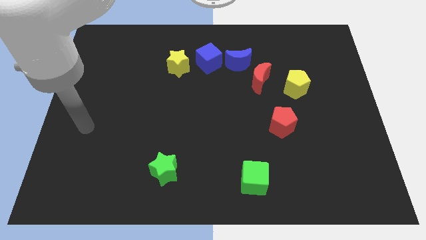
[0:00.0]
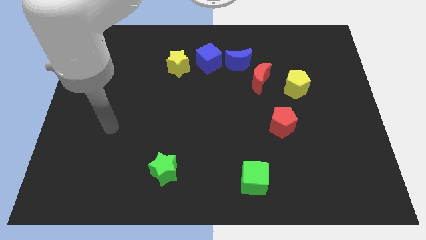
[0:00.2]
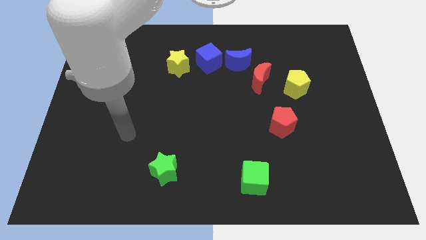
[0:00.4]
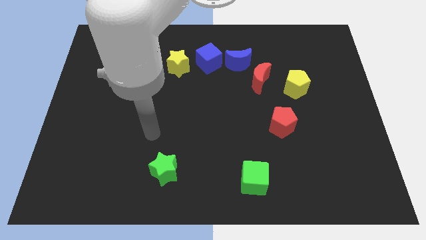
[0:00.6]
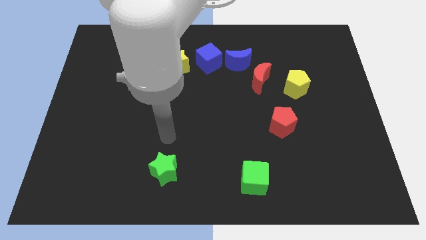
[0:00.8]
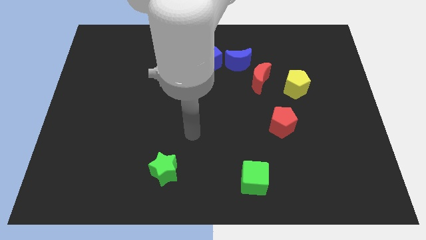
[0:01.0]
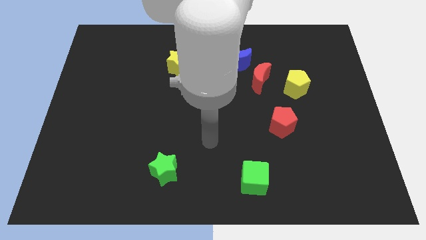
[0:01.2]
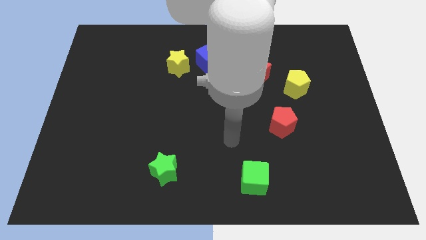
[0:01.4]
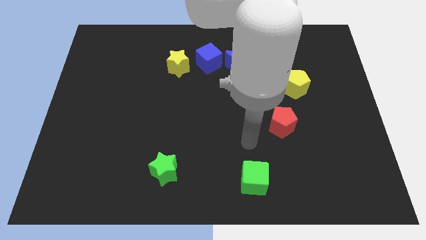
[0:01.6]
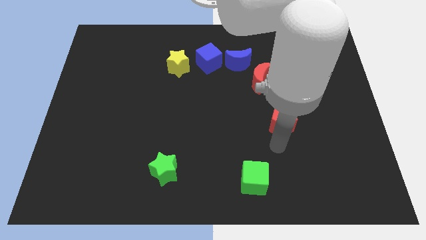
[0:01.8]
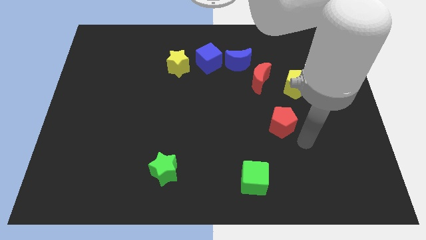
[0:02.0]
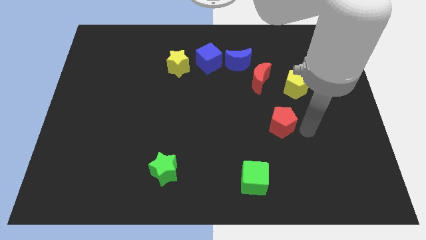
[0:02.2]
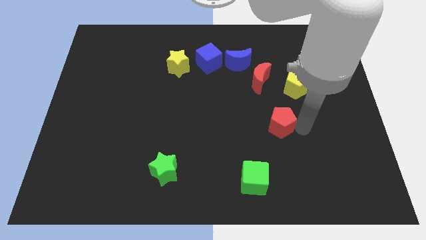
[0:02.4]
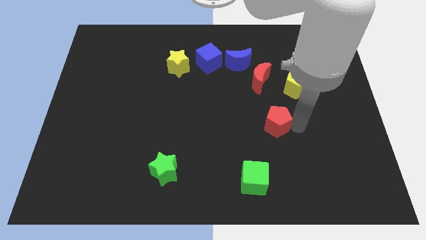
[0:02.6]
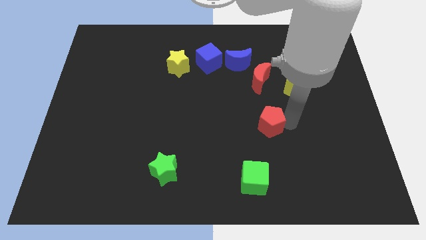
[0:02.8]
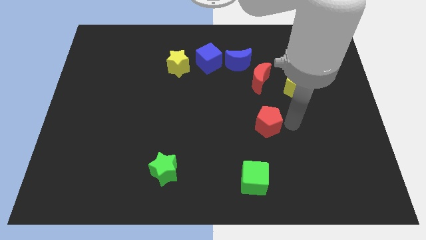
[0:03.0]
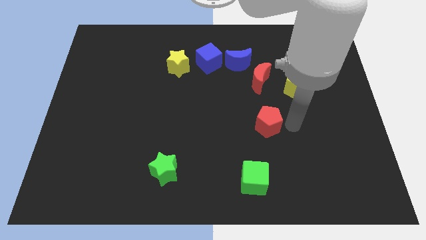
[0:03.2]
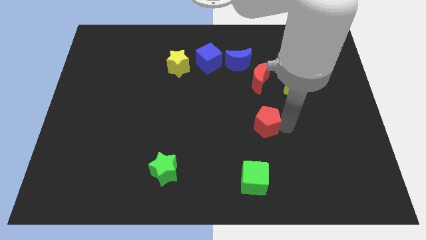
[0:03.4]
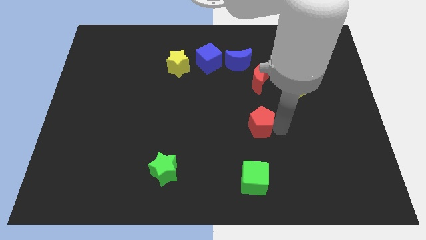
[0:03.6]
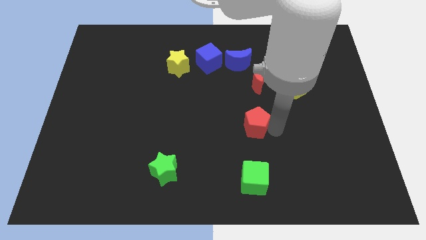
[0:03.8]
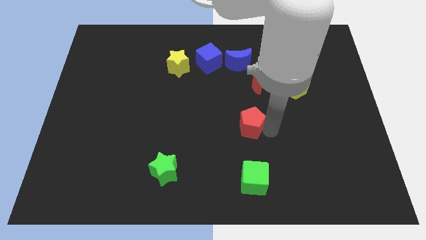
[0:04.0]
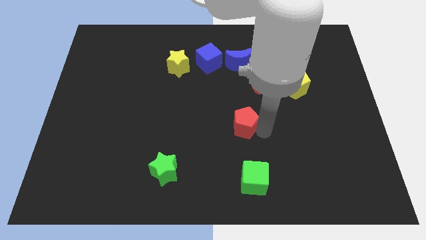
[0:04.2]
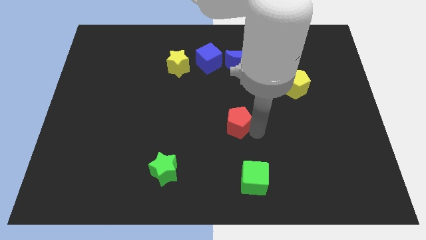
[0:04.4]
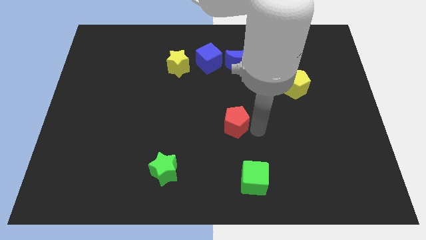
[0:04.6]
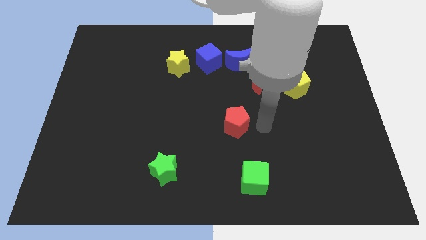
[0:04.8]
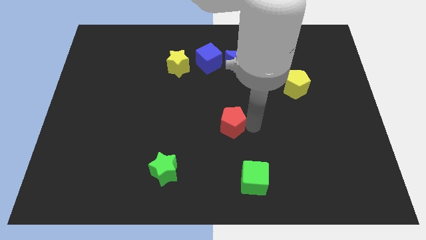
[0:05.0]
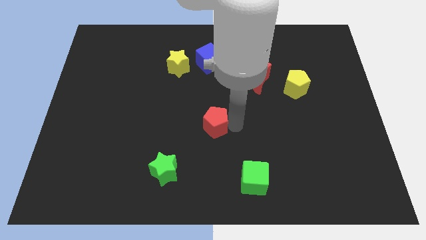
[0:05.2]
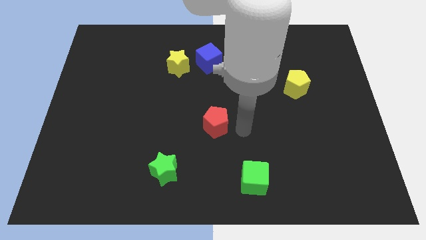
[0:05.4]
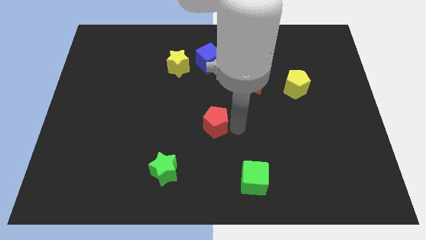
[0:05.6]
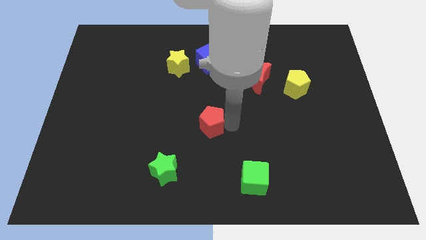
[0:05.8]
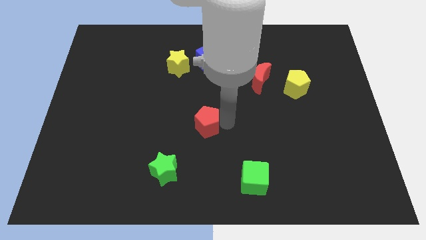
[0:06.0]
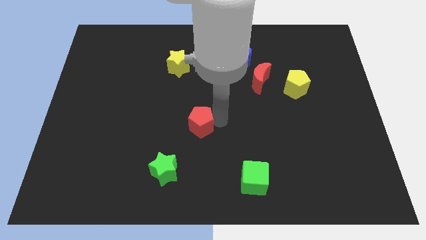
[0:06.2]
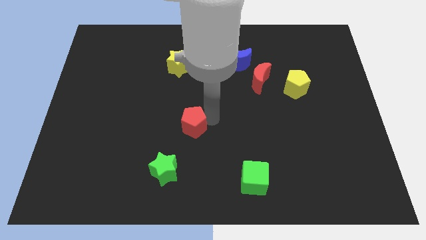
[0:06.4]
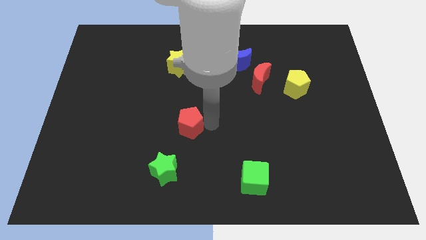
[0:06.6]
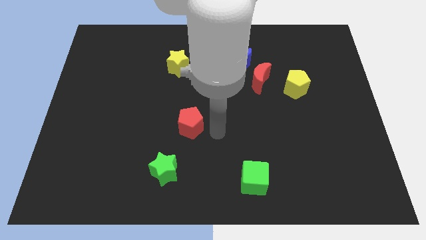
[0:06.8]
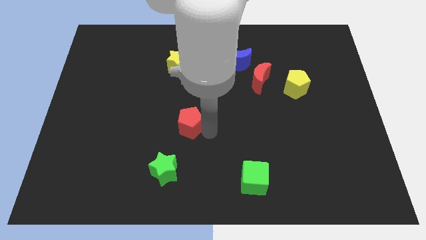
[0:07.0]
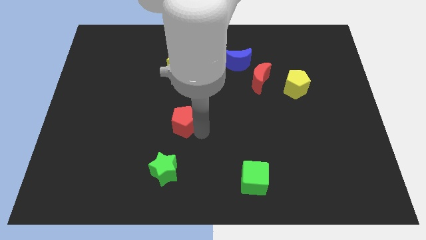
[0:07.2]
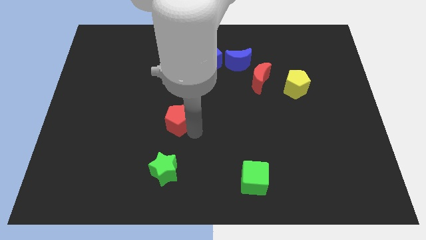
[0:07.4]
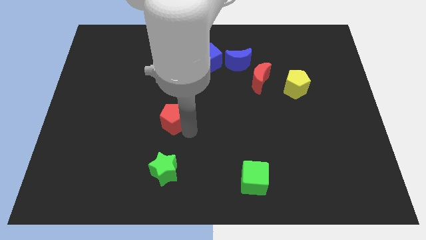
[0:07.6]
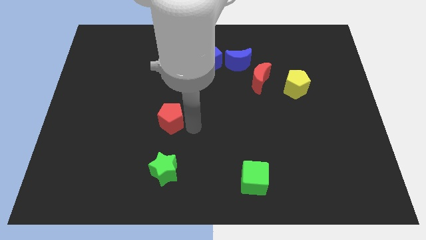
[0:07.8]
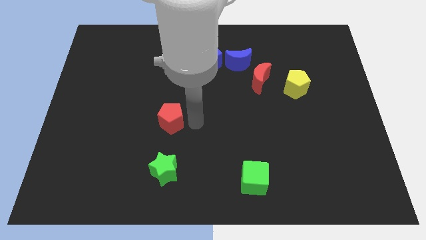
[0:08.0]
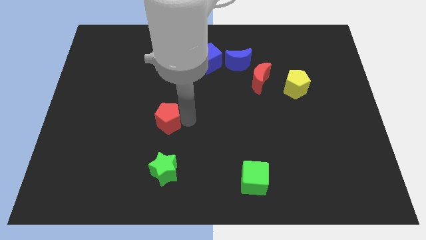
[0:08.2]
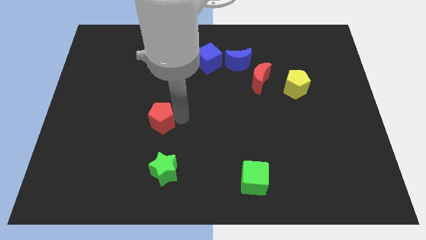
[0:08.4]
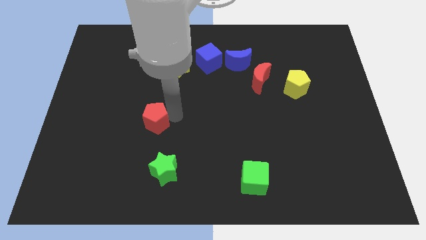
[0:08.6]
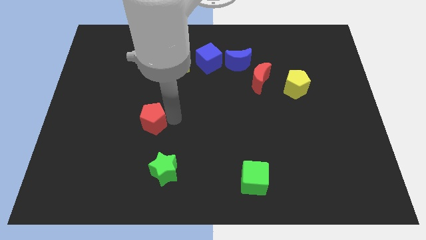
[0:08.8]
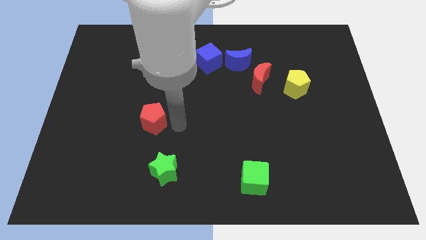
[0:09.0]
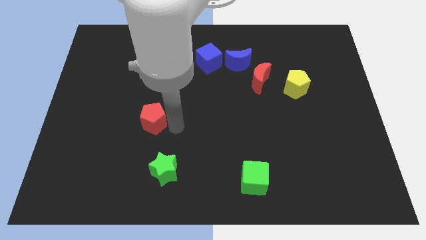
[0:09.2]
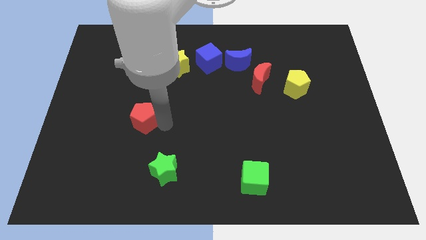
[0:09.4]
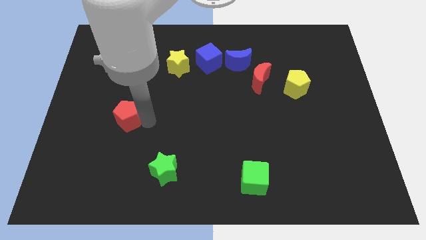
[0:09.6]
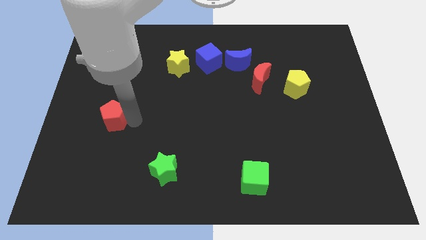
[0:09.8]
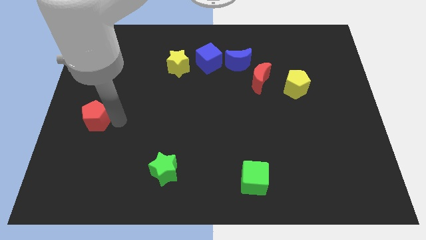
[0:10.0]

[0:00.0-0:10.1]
push the red pentagon to the left side

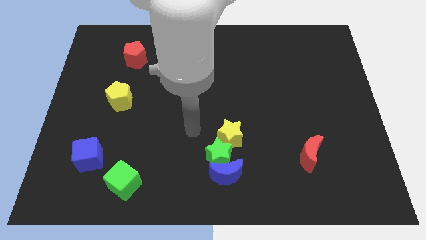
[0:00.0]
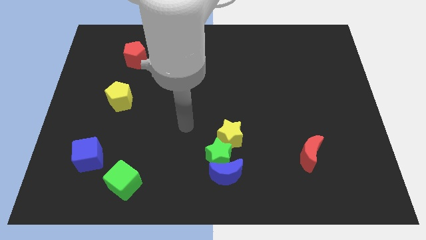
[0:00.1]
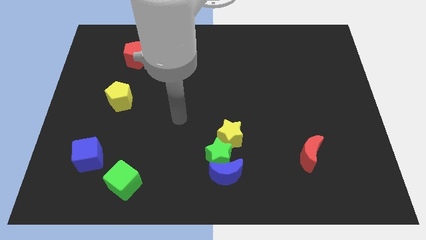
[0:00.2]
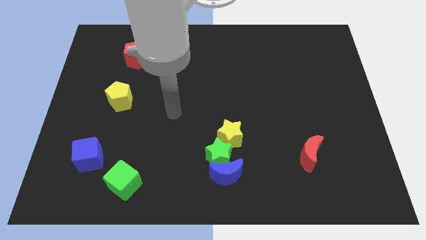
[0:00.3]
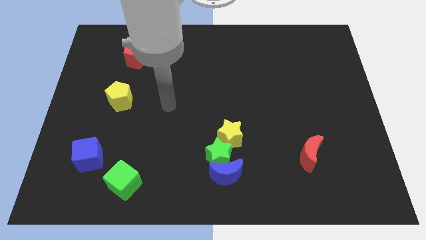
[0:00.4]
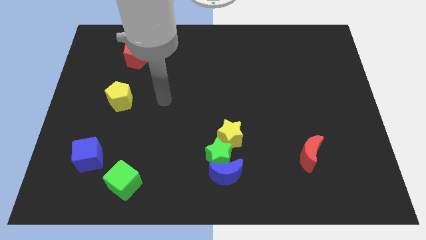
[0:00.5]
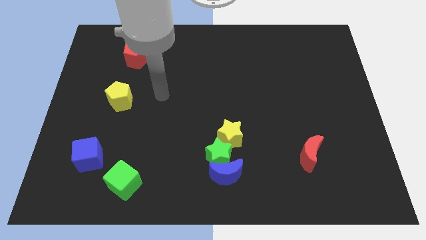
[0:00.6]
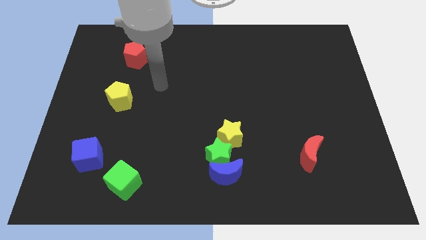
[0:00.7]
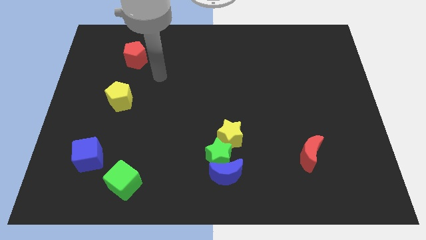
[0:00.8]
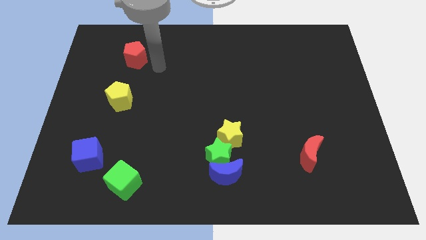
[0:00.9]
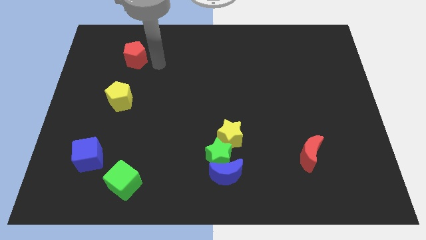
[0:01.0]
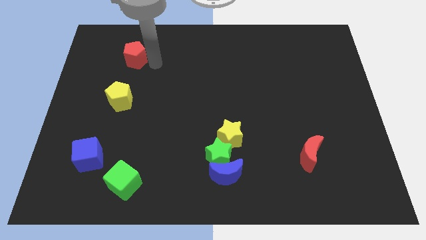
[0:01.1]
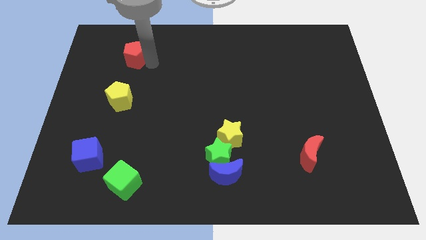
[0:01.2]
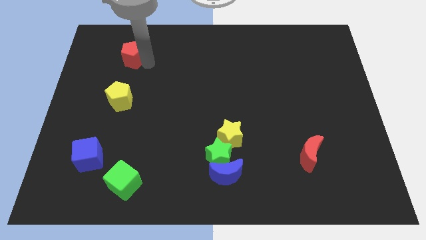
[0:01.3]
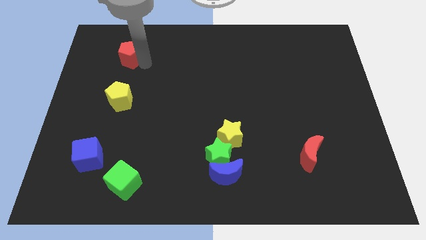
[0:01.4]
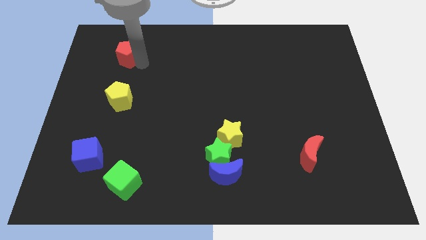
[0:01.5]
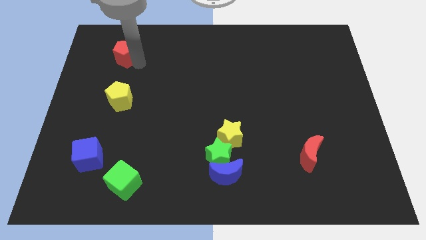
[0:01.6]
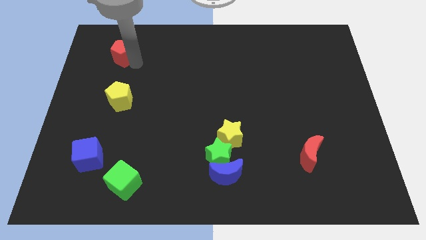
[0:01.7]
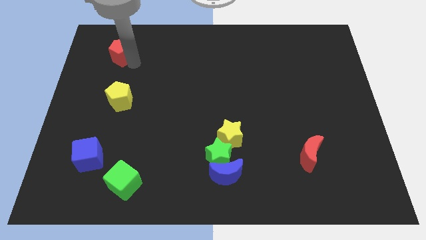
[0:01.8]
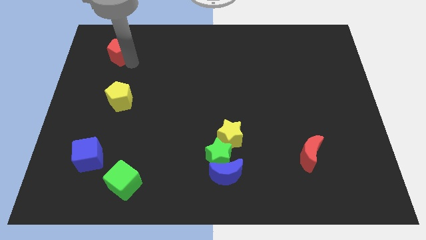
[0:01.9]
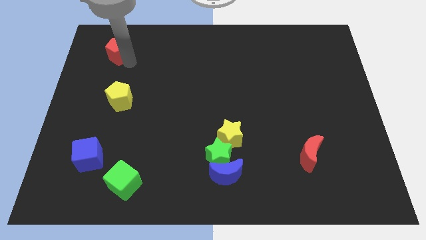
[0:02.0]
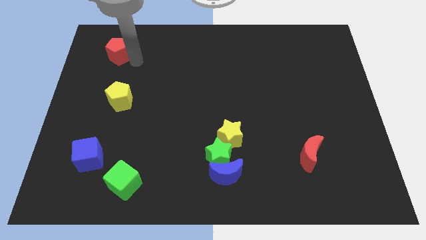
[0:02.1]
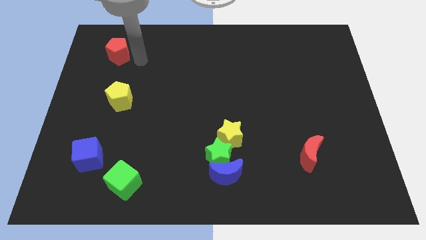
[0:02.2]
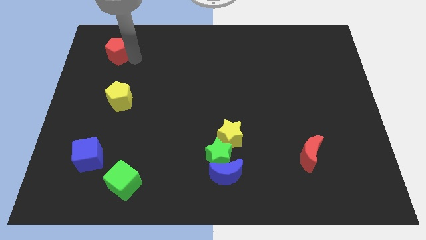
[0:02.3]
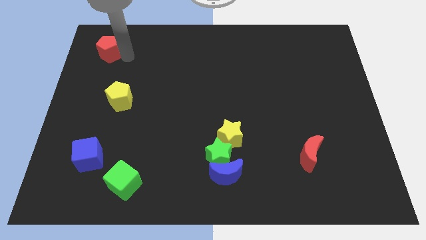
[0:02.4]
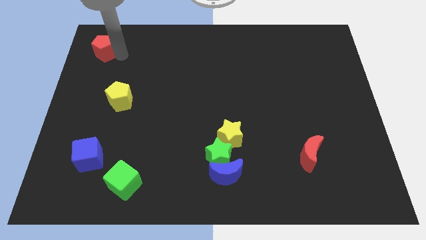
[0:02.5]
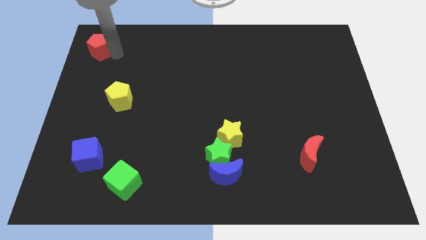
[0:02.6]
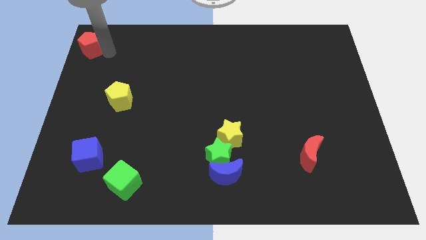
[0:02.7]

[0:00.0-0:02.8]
slide the red pentagon to the upper left corner
